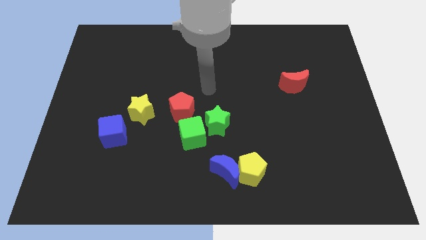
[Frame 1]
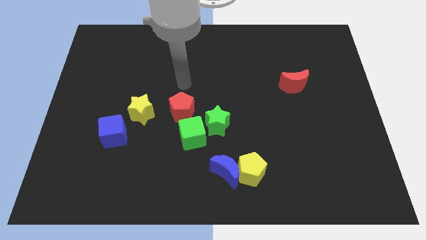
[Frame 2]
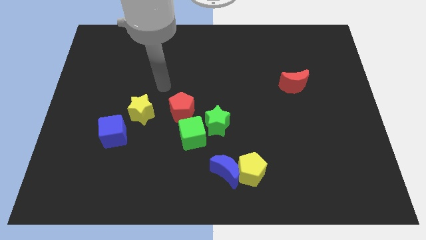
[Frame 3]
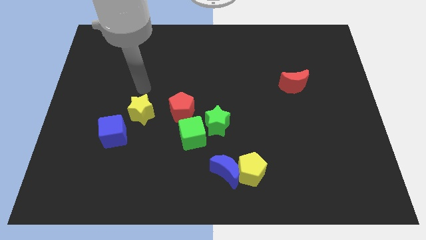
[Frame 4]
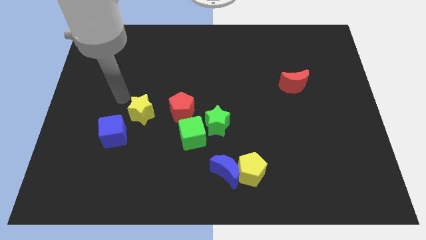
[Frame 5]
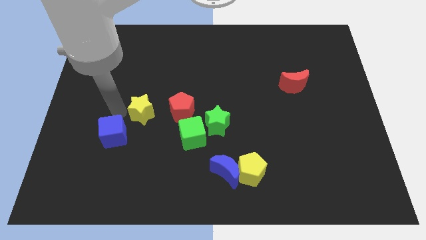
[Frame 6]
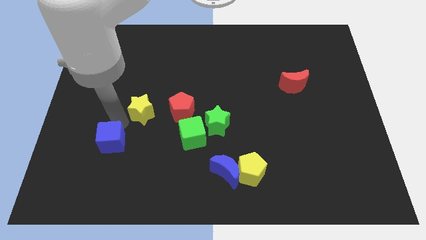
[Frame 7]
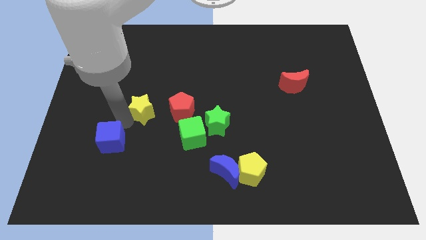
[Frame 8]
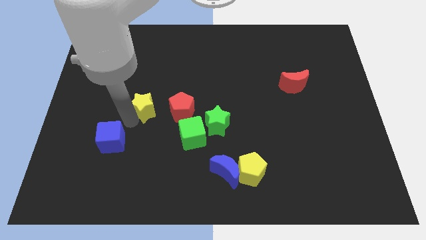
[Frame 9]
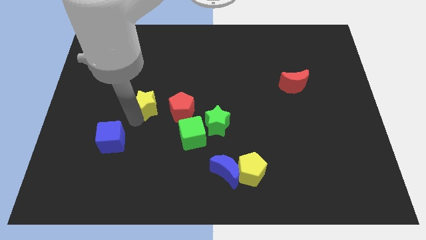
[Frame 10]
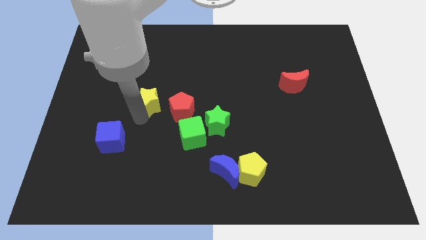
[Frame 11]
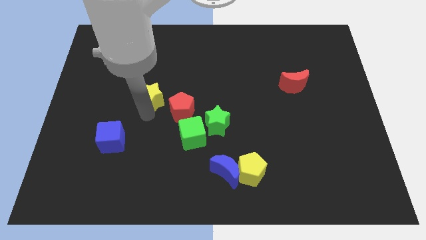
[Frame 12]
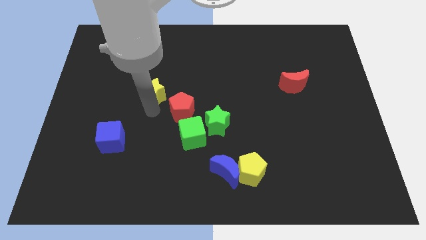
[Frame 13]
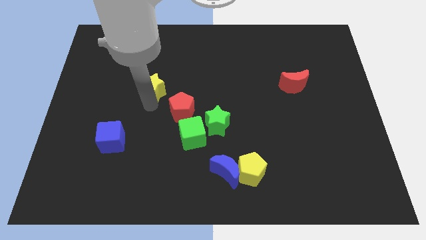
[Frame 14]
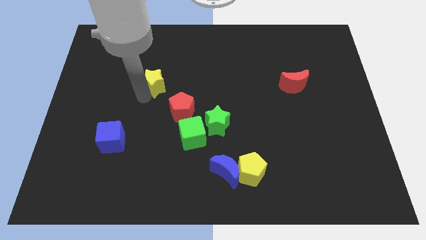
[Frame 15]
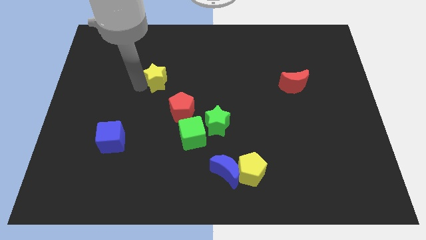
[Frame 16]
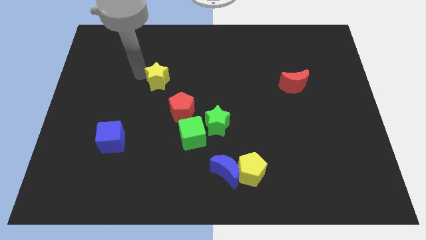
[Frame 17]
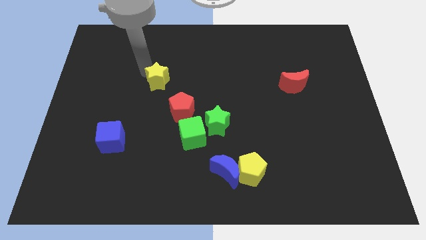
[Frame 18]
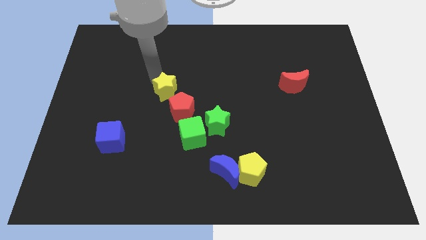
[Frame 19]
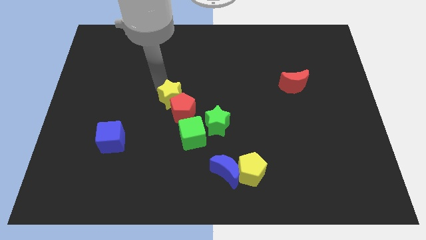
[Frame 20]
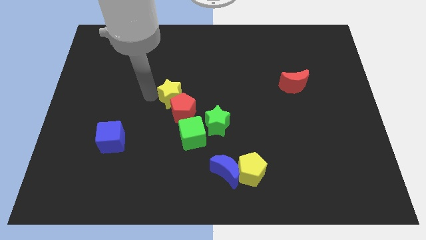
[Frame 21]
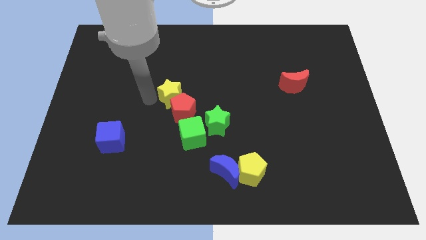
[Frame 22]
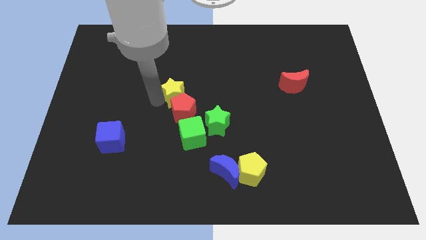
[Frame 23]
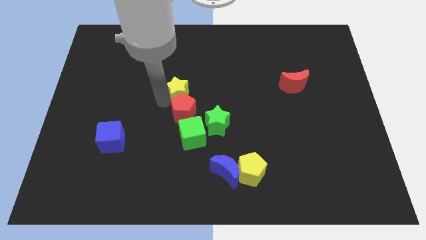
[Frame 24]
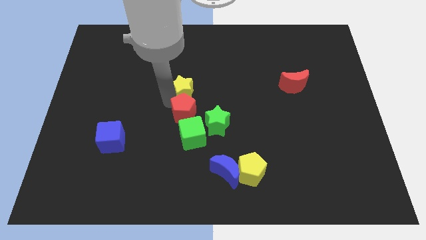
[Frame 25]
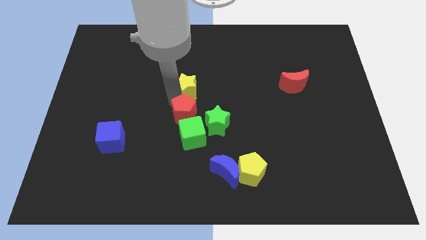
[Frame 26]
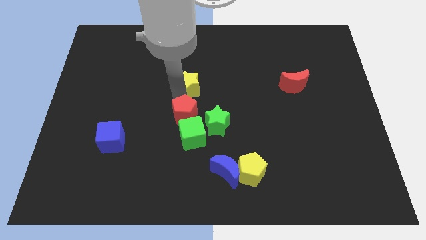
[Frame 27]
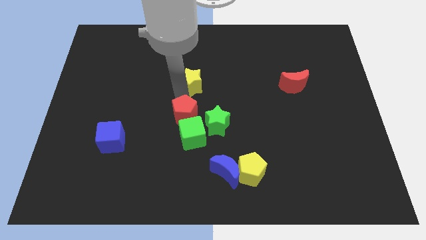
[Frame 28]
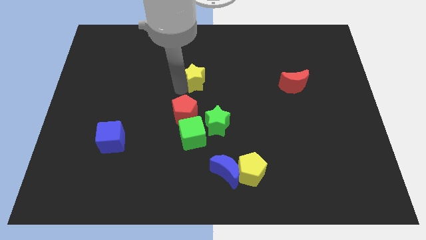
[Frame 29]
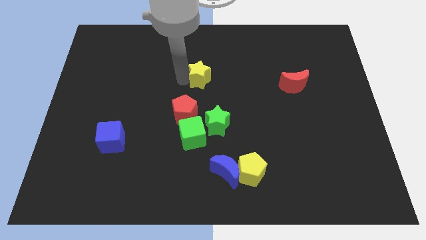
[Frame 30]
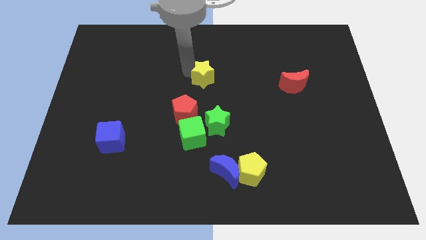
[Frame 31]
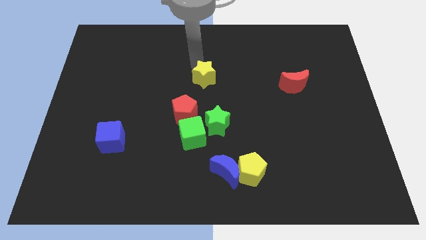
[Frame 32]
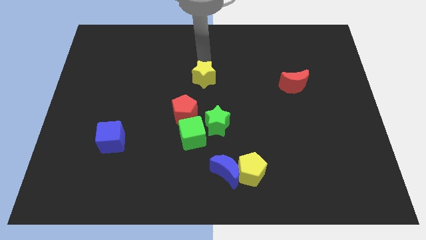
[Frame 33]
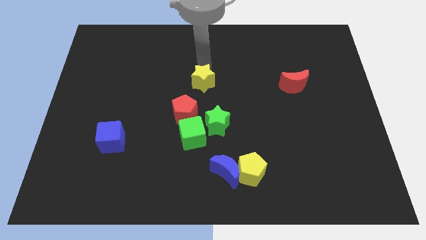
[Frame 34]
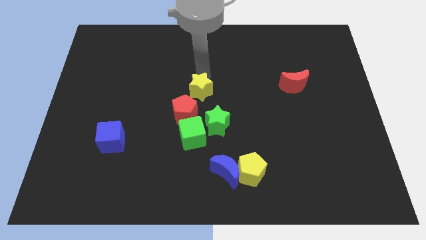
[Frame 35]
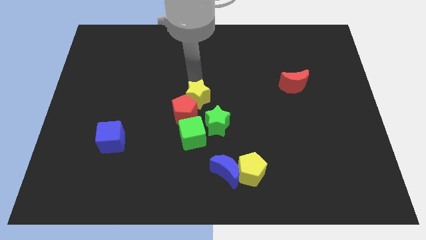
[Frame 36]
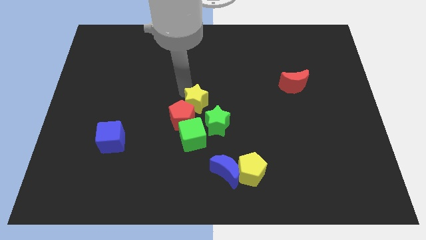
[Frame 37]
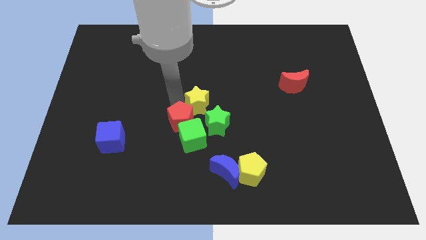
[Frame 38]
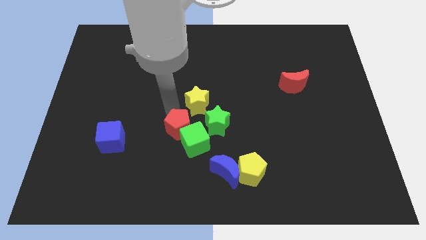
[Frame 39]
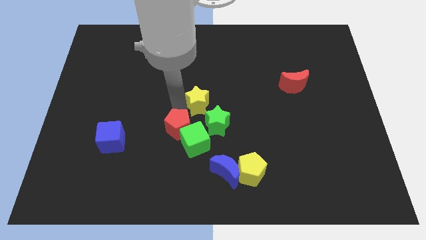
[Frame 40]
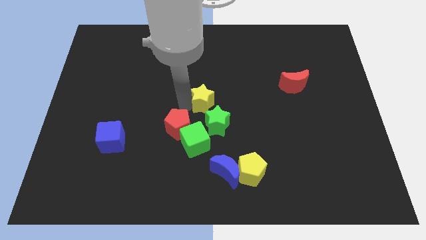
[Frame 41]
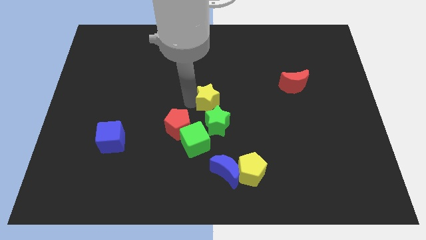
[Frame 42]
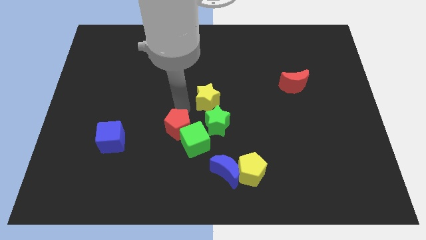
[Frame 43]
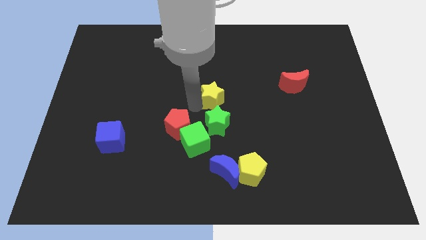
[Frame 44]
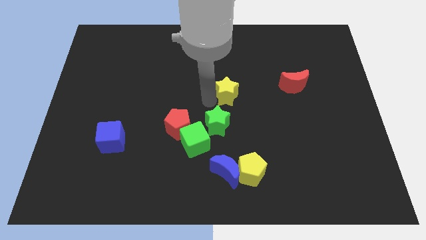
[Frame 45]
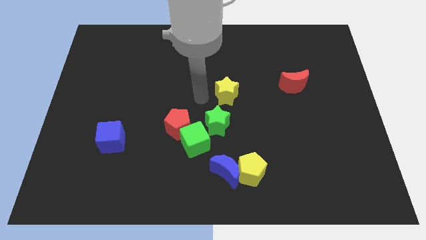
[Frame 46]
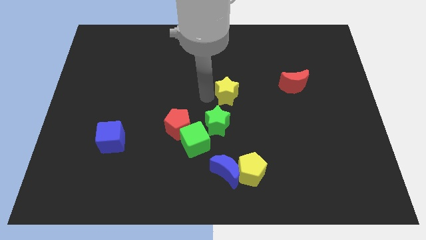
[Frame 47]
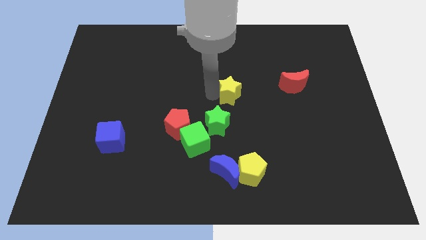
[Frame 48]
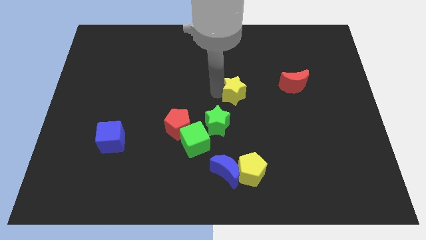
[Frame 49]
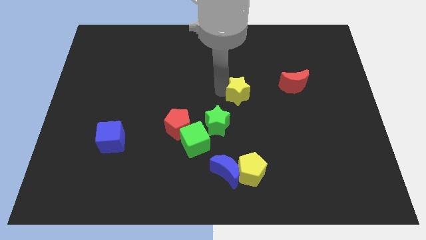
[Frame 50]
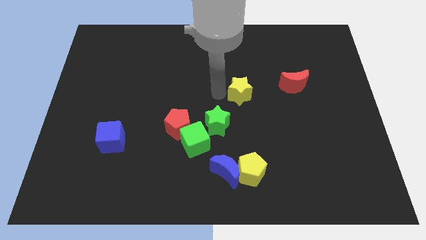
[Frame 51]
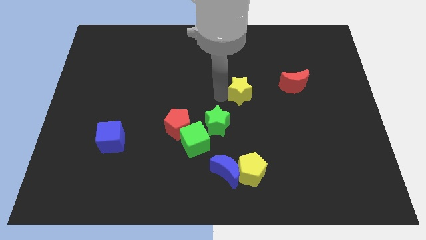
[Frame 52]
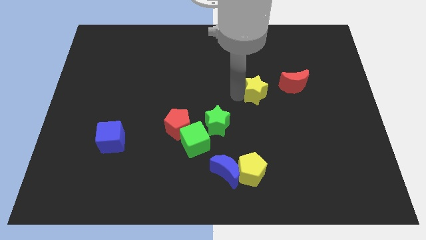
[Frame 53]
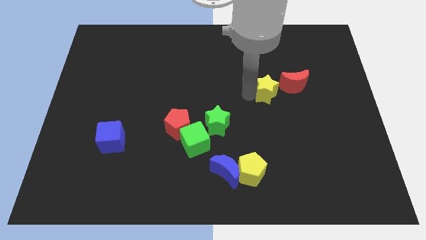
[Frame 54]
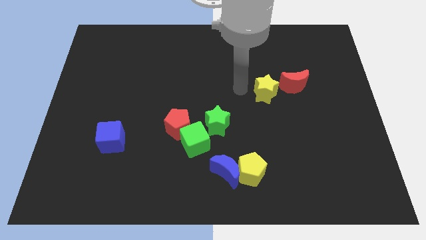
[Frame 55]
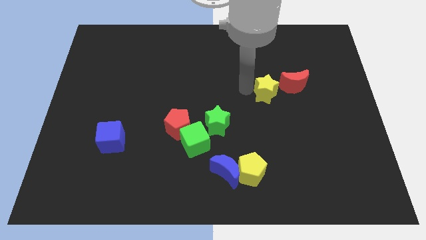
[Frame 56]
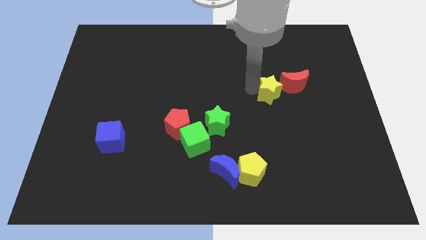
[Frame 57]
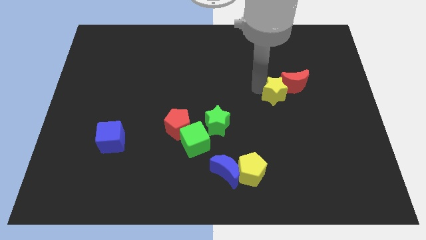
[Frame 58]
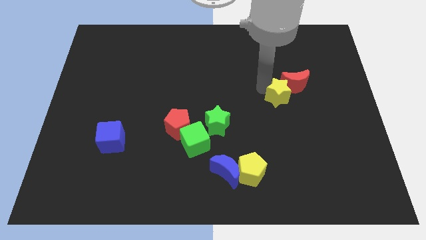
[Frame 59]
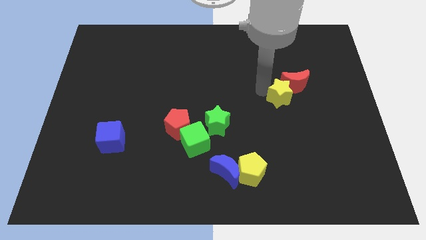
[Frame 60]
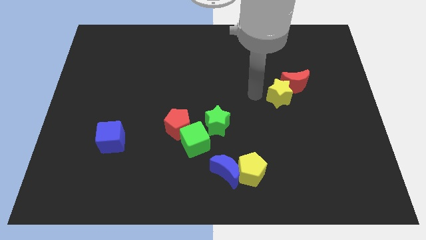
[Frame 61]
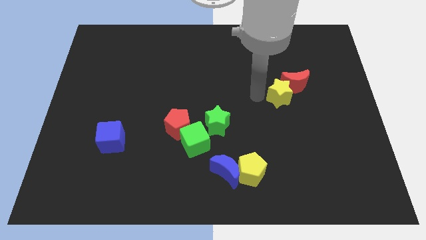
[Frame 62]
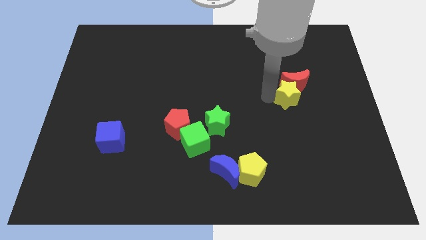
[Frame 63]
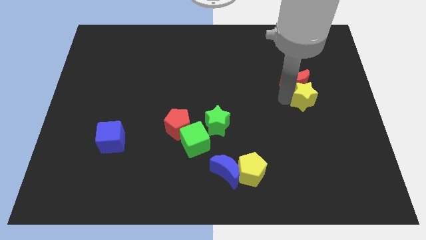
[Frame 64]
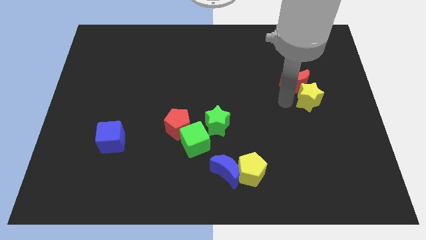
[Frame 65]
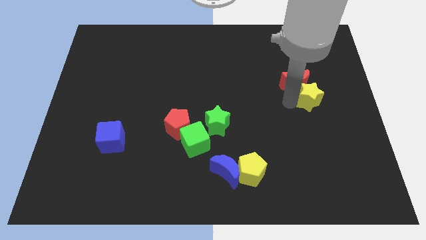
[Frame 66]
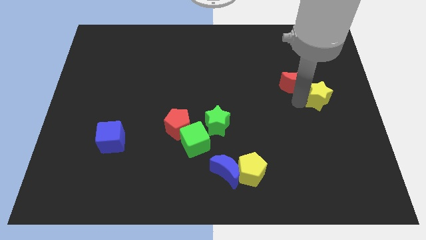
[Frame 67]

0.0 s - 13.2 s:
put the yellow star to the right side
